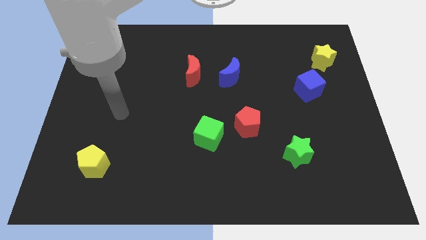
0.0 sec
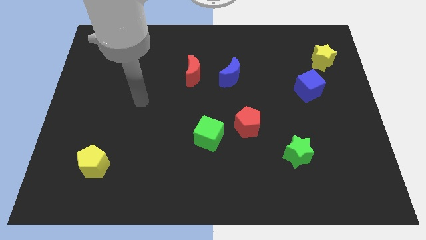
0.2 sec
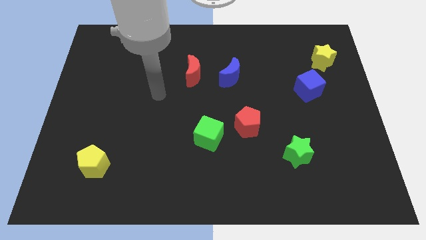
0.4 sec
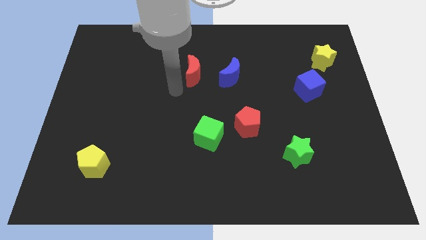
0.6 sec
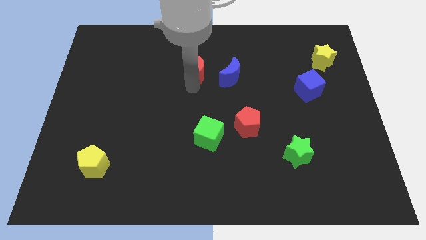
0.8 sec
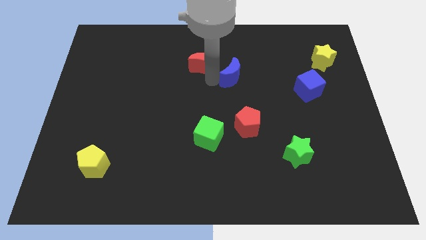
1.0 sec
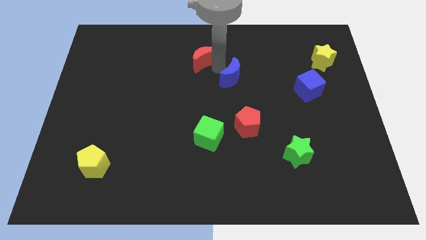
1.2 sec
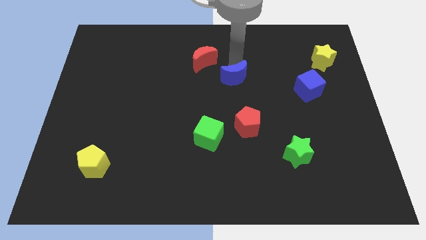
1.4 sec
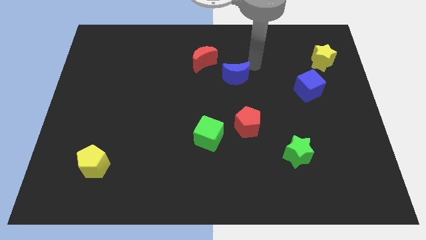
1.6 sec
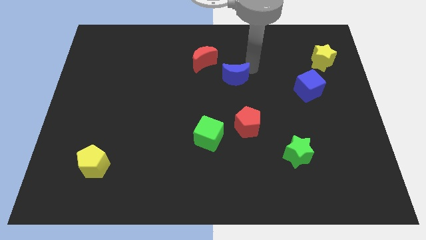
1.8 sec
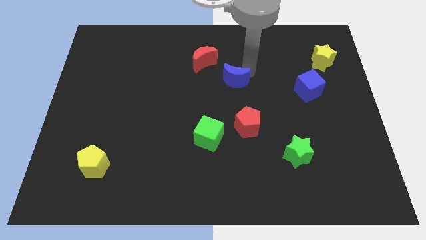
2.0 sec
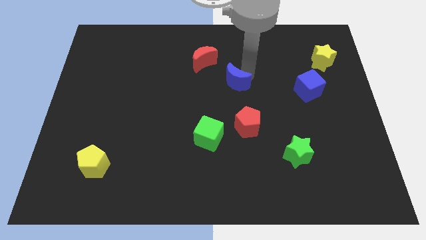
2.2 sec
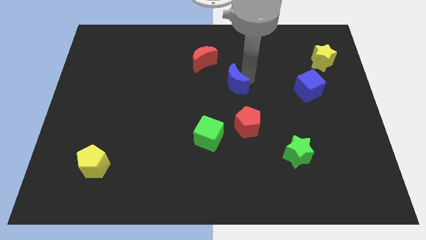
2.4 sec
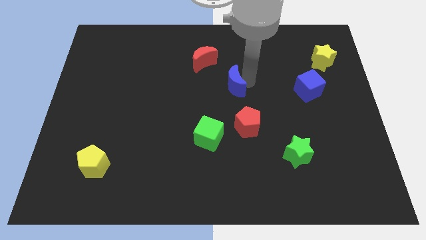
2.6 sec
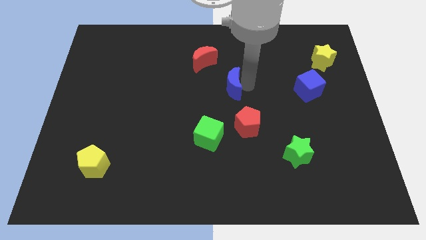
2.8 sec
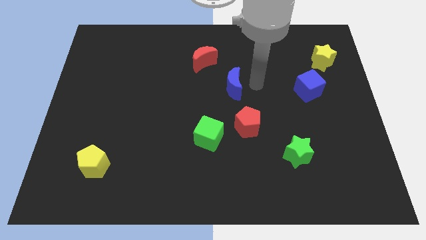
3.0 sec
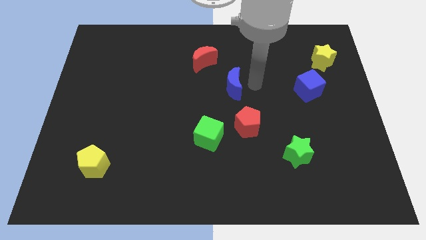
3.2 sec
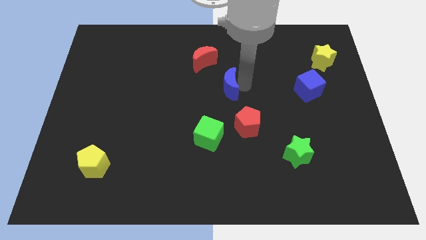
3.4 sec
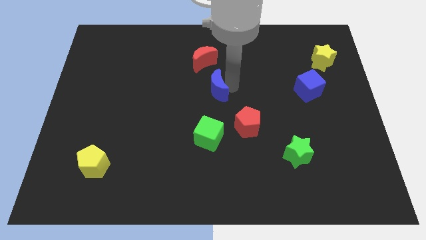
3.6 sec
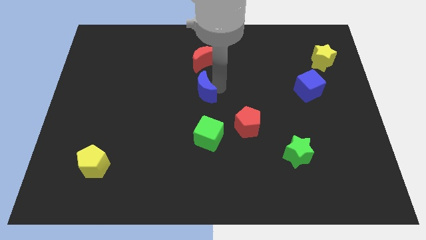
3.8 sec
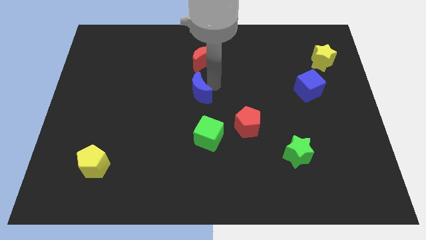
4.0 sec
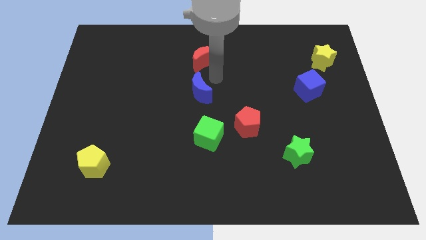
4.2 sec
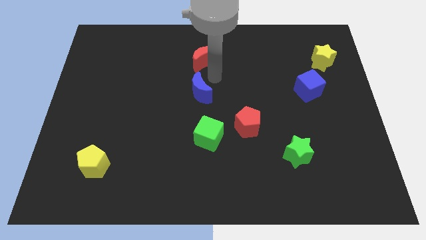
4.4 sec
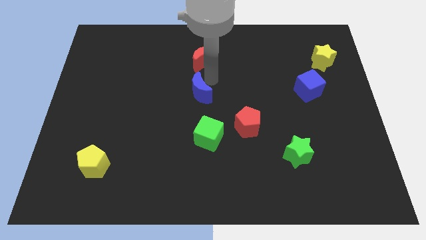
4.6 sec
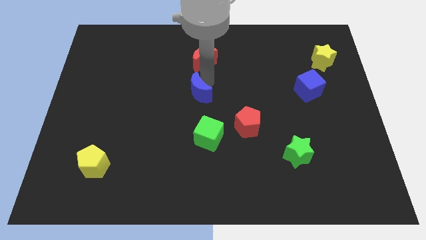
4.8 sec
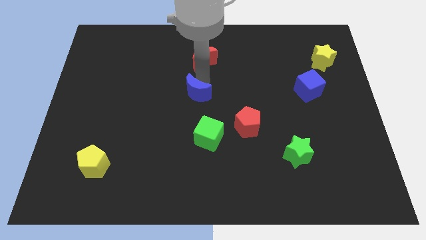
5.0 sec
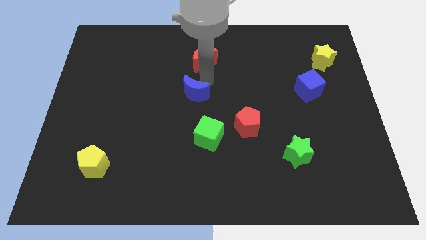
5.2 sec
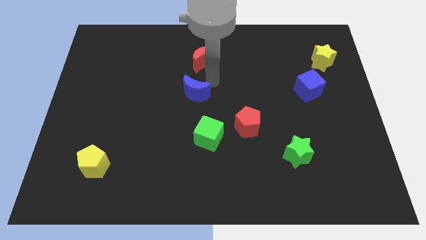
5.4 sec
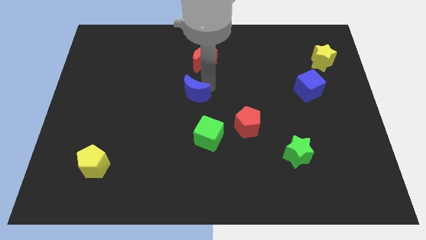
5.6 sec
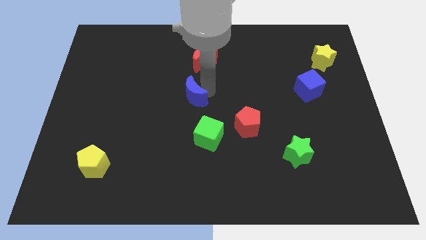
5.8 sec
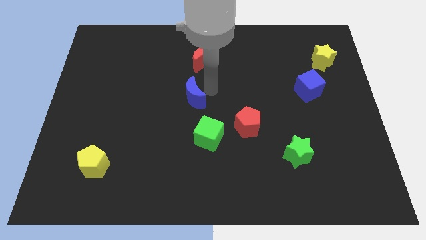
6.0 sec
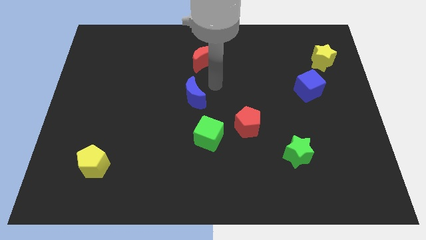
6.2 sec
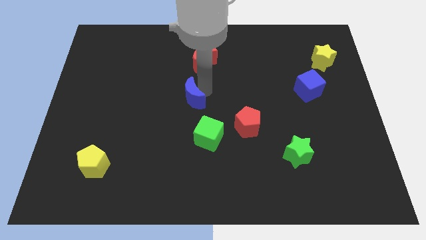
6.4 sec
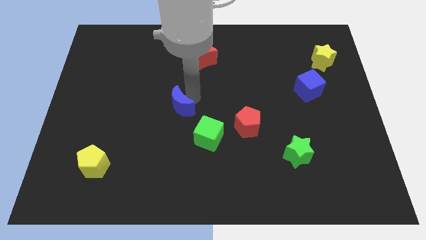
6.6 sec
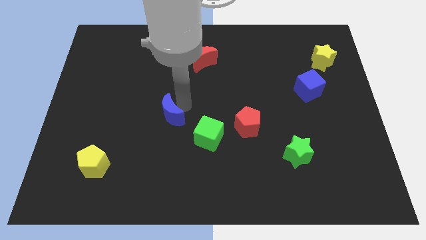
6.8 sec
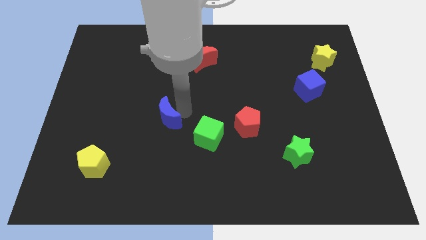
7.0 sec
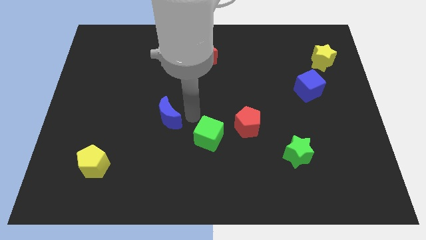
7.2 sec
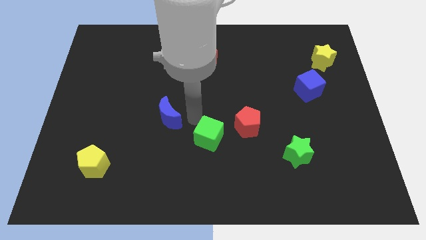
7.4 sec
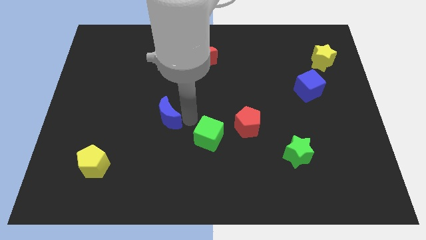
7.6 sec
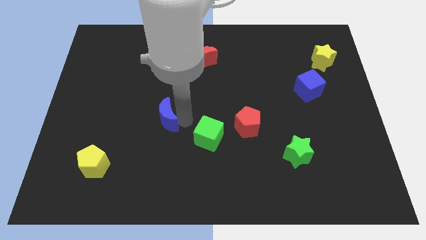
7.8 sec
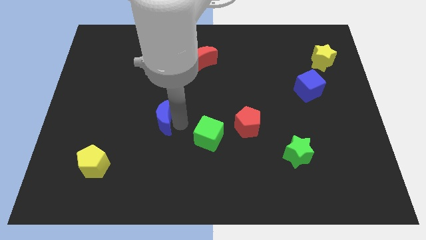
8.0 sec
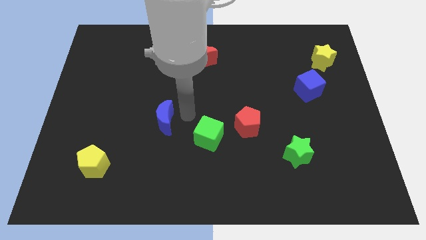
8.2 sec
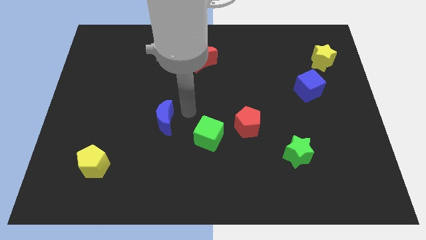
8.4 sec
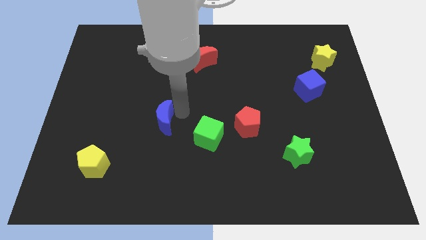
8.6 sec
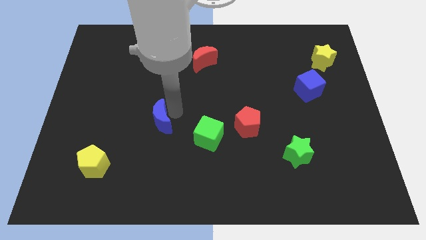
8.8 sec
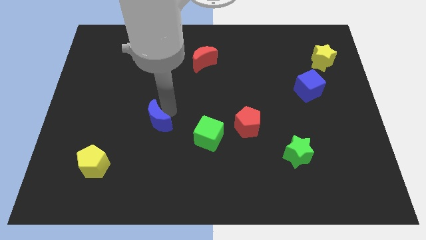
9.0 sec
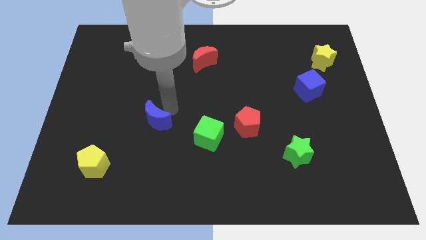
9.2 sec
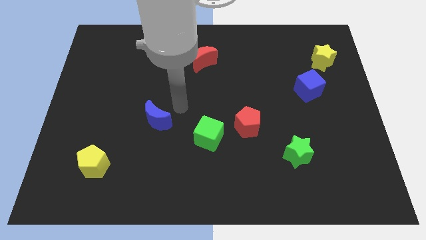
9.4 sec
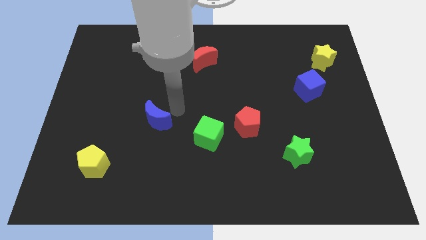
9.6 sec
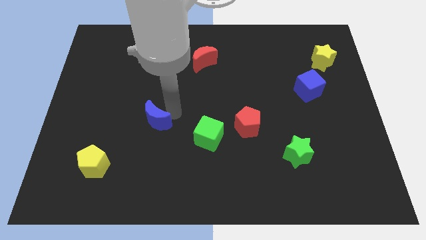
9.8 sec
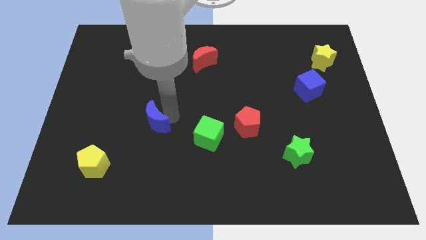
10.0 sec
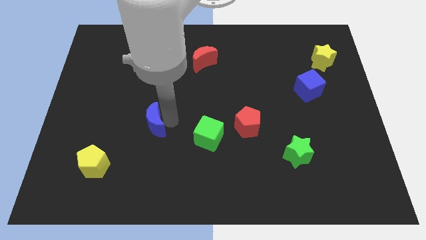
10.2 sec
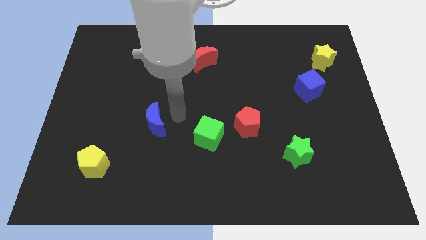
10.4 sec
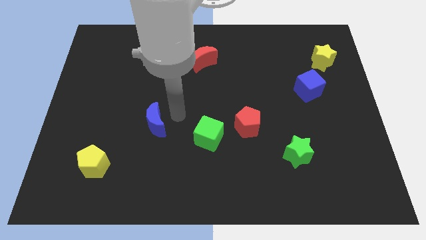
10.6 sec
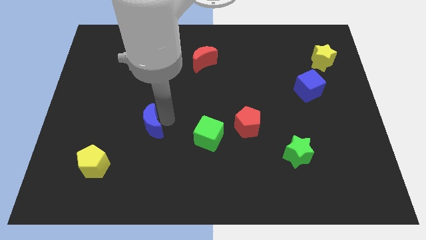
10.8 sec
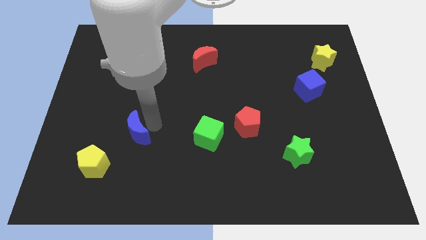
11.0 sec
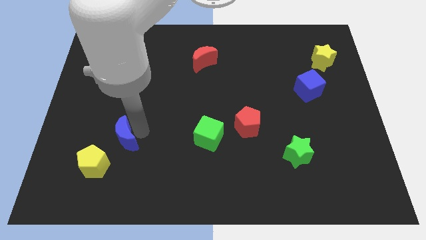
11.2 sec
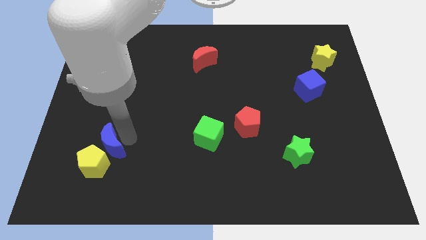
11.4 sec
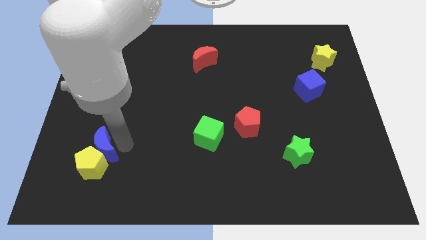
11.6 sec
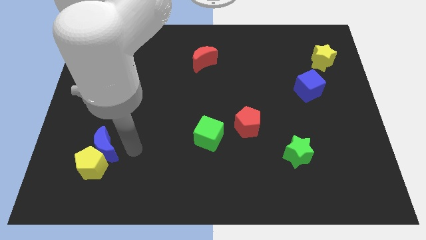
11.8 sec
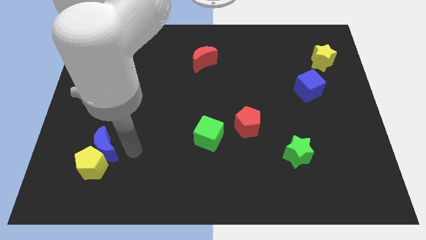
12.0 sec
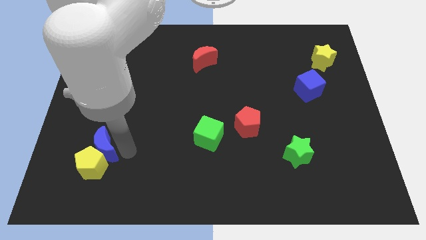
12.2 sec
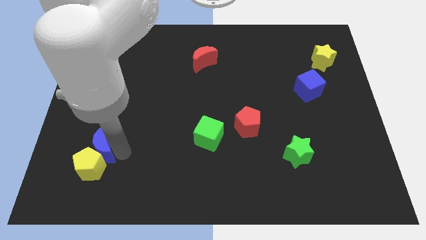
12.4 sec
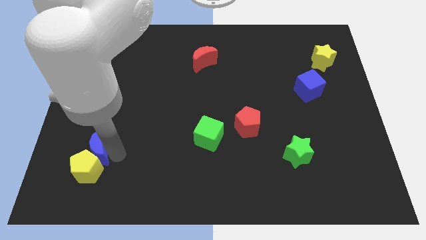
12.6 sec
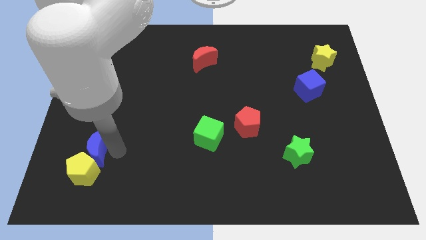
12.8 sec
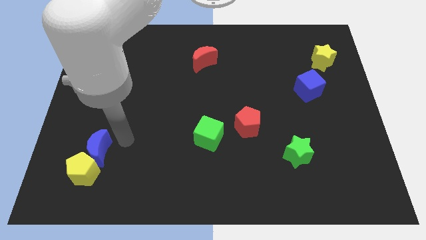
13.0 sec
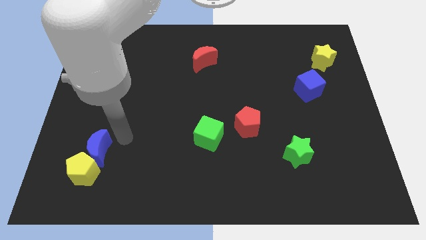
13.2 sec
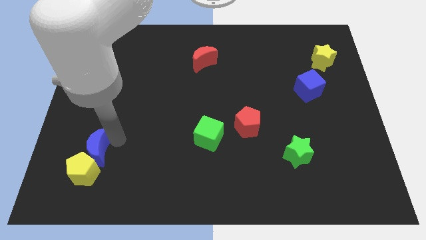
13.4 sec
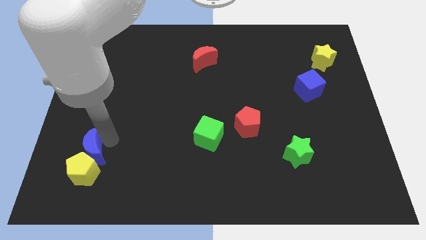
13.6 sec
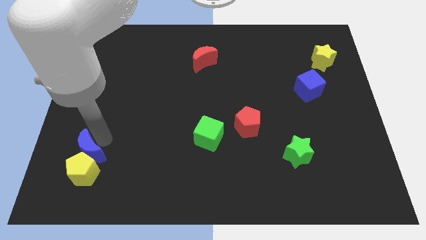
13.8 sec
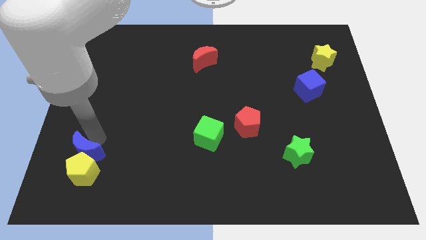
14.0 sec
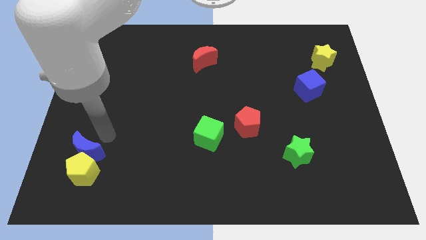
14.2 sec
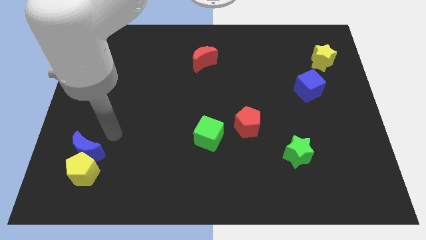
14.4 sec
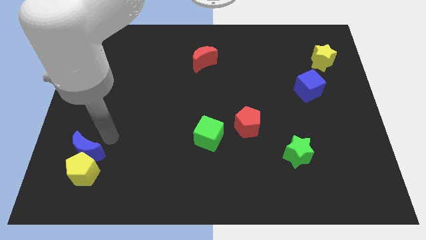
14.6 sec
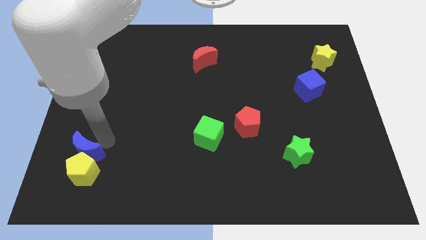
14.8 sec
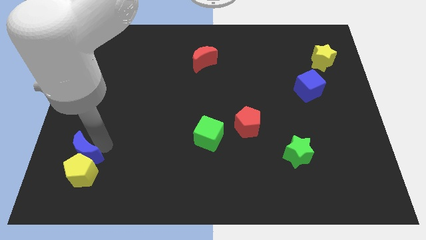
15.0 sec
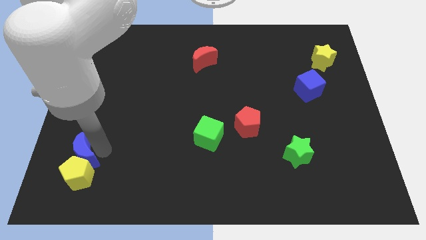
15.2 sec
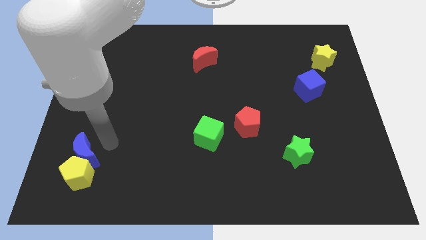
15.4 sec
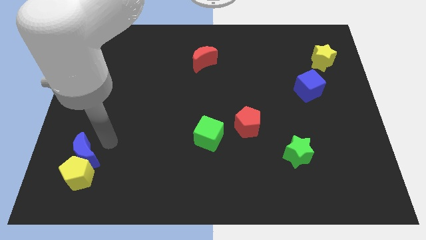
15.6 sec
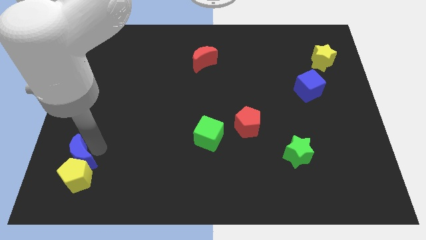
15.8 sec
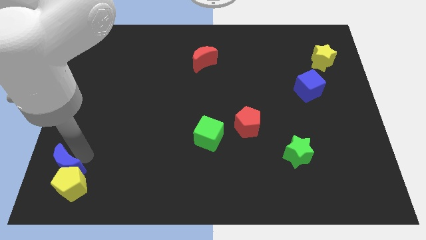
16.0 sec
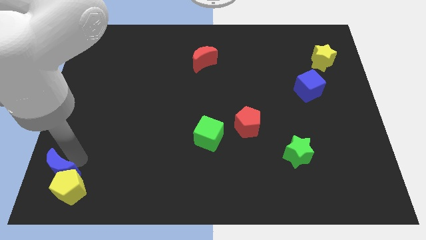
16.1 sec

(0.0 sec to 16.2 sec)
slide the blue moon to the lower left corner
